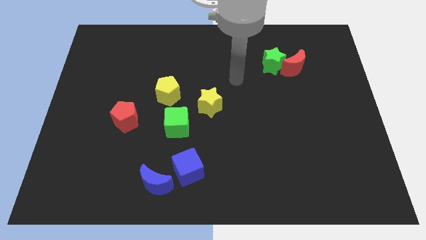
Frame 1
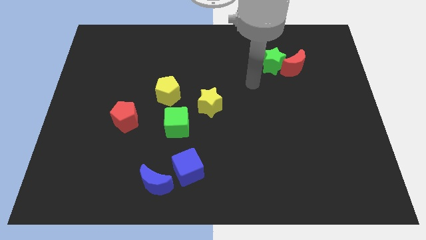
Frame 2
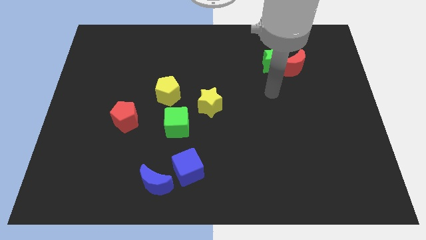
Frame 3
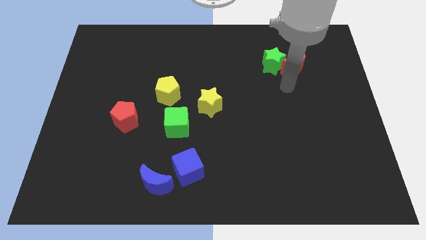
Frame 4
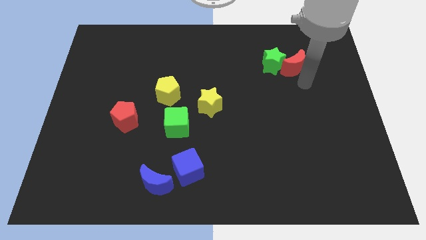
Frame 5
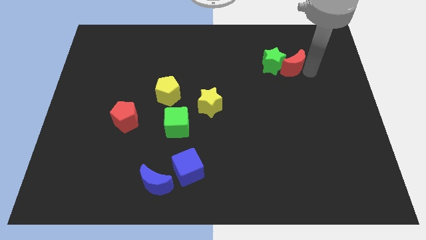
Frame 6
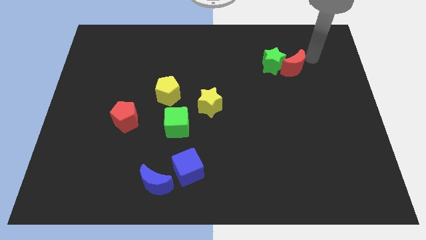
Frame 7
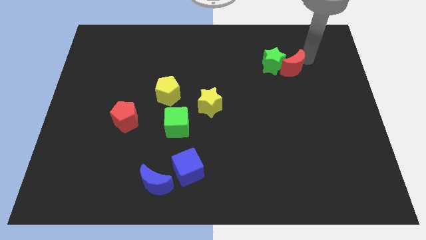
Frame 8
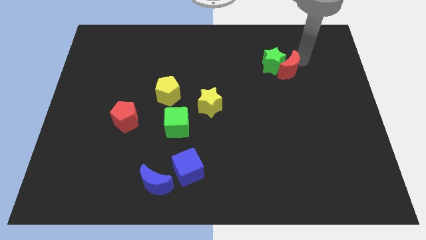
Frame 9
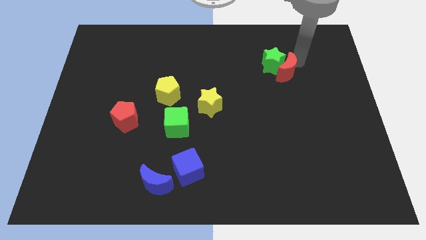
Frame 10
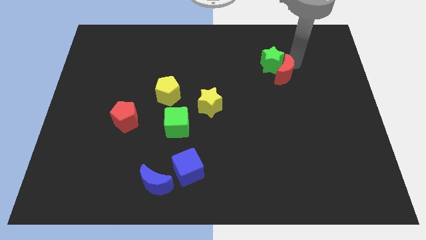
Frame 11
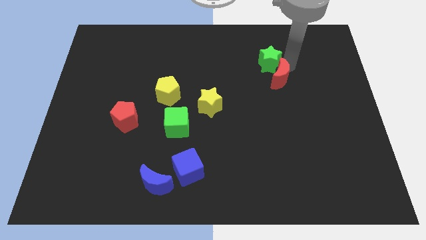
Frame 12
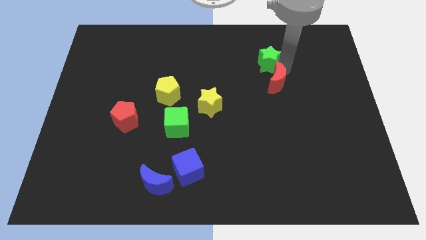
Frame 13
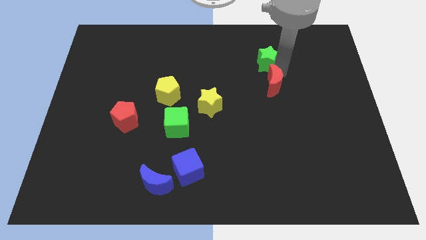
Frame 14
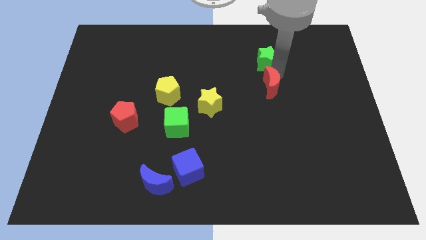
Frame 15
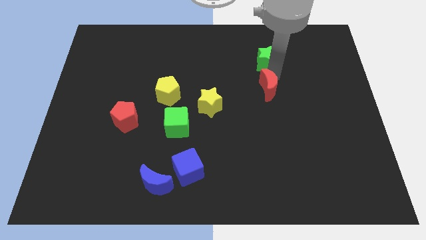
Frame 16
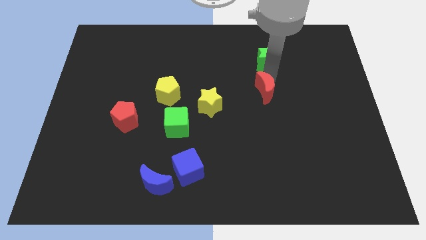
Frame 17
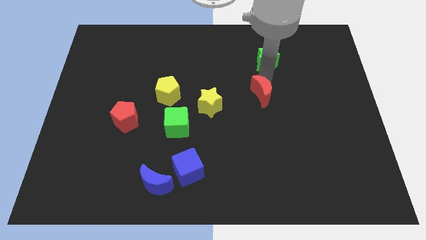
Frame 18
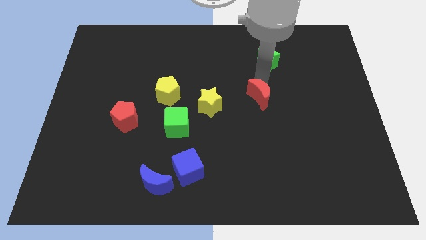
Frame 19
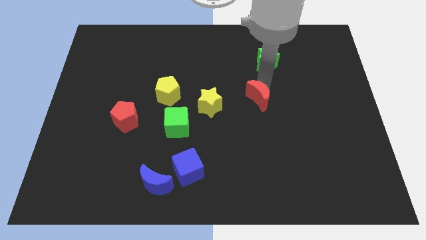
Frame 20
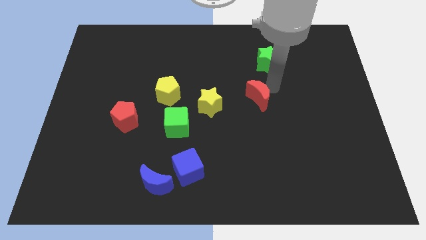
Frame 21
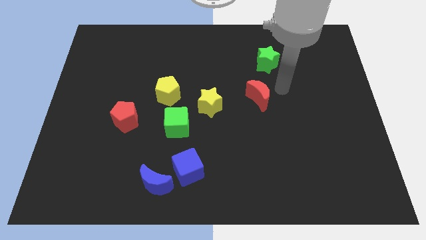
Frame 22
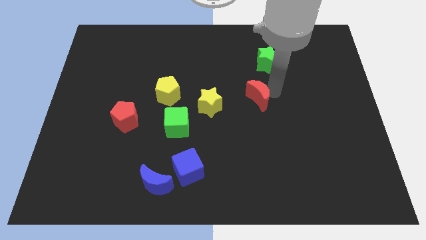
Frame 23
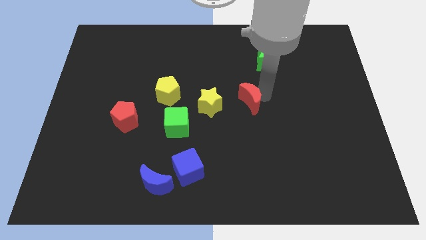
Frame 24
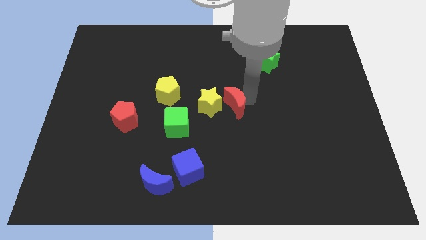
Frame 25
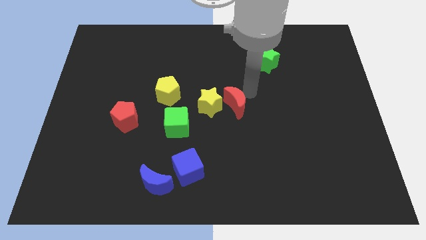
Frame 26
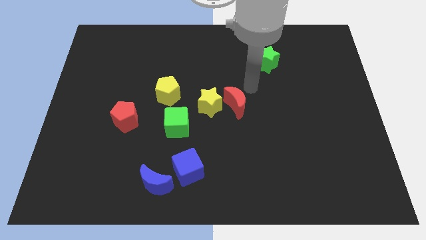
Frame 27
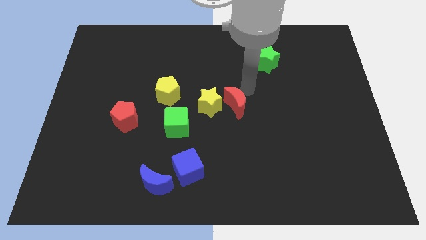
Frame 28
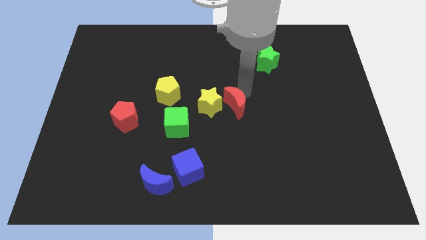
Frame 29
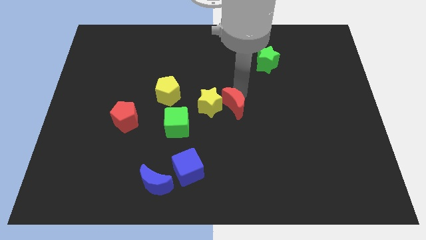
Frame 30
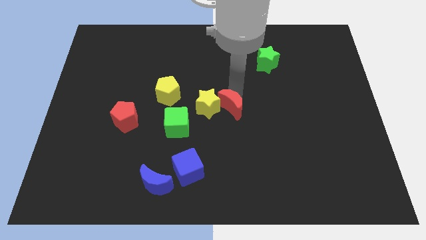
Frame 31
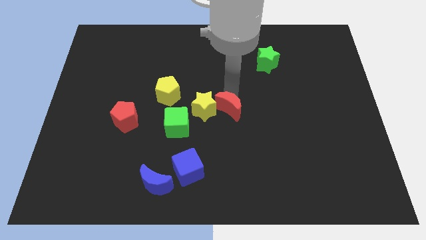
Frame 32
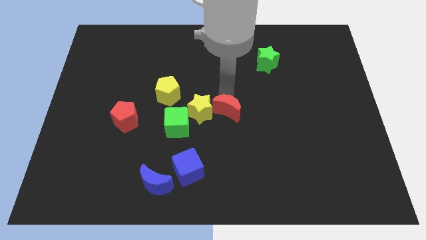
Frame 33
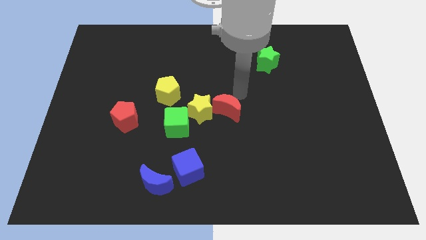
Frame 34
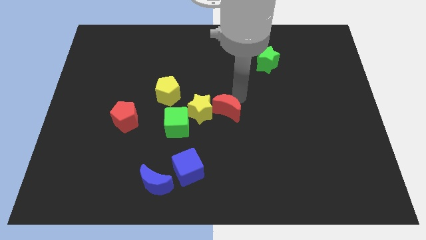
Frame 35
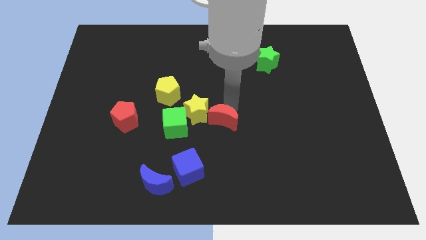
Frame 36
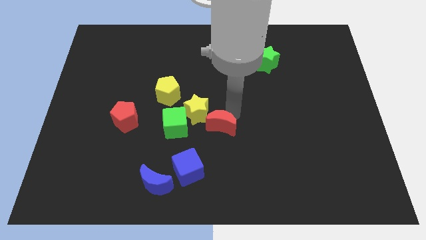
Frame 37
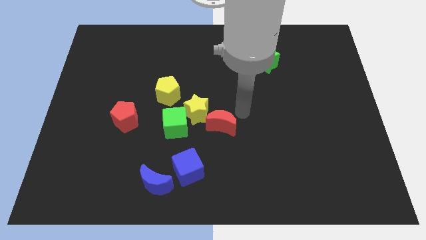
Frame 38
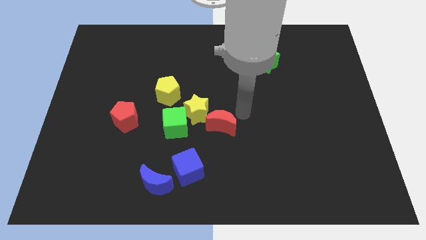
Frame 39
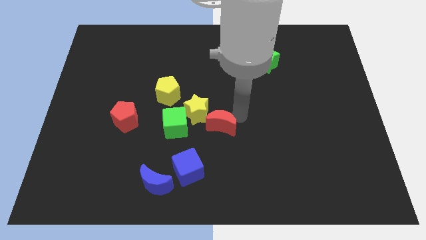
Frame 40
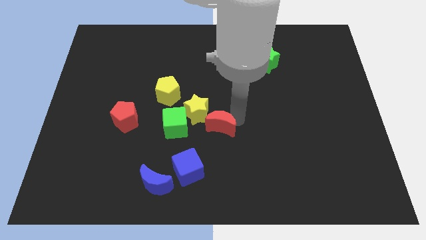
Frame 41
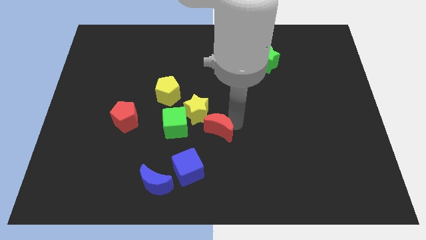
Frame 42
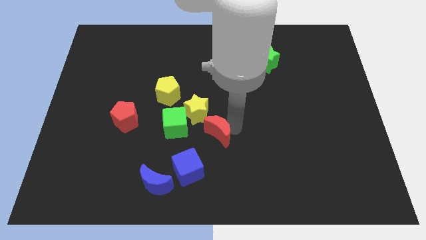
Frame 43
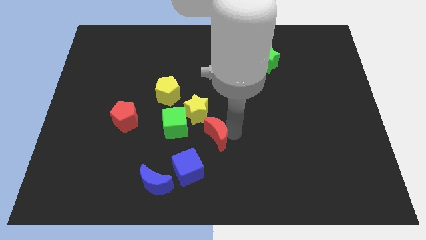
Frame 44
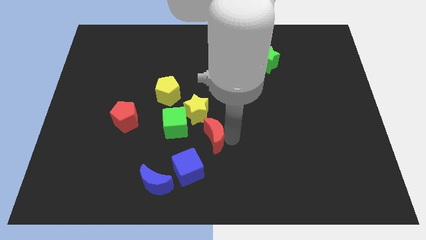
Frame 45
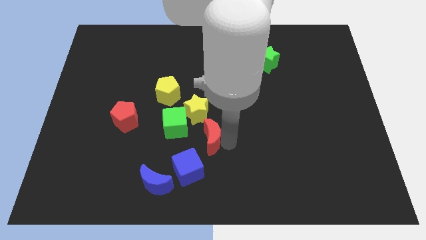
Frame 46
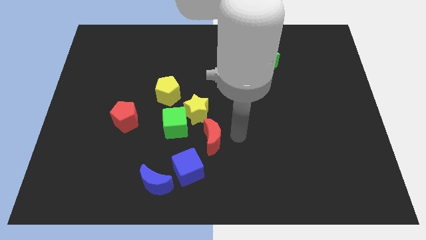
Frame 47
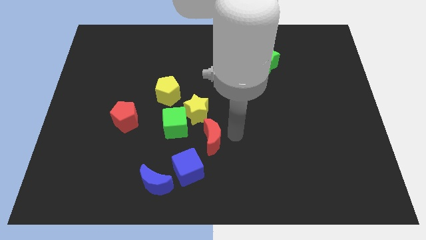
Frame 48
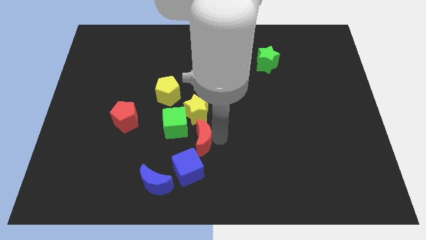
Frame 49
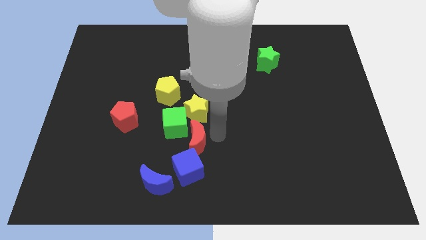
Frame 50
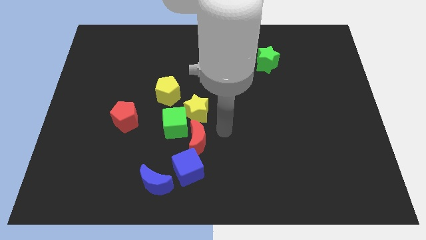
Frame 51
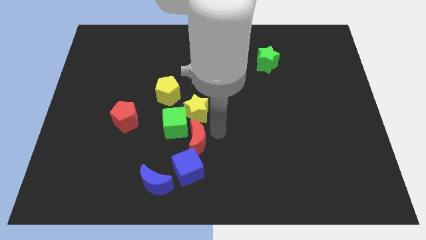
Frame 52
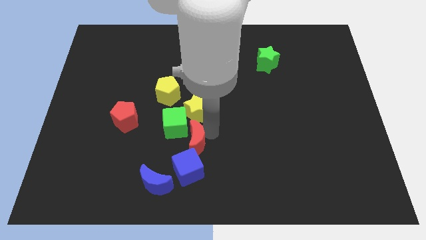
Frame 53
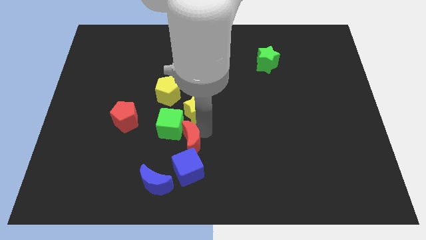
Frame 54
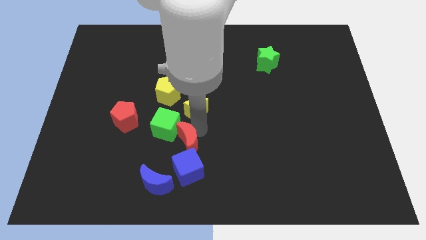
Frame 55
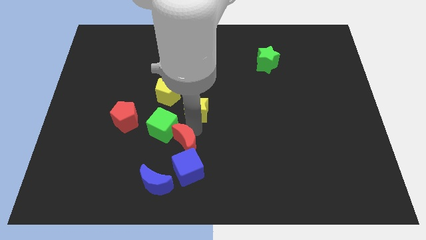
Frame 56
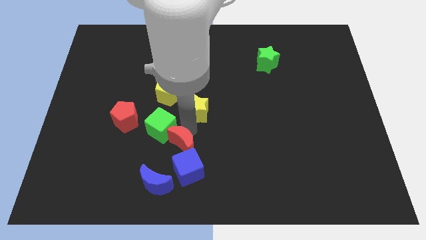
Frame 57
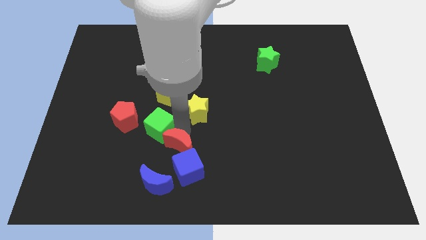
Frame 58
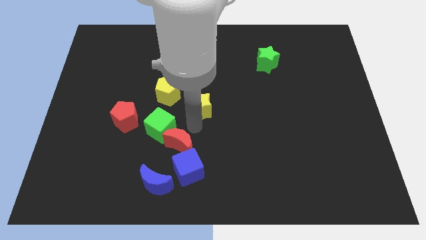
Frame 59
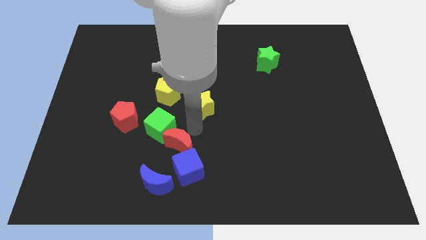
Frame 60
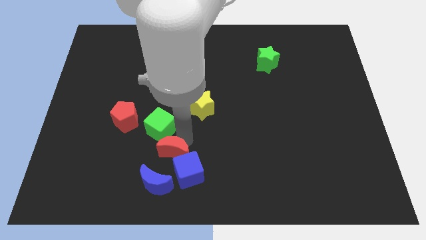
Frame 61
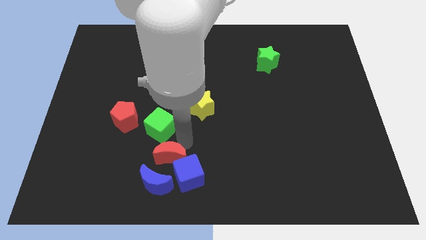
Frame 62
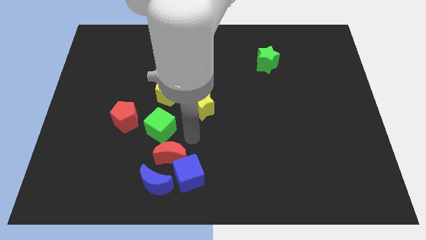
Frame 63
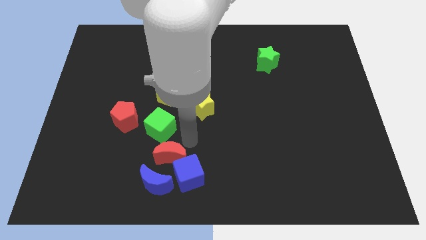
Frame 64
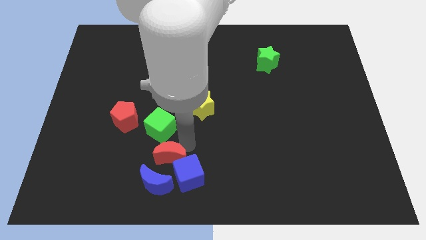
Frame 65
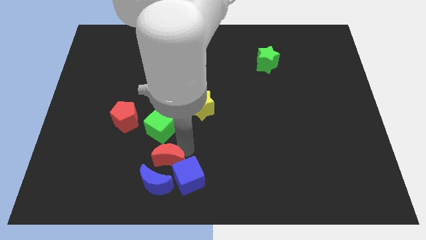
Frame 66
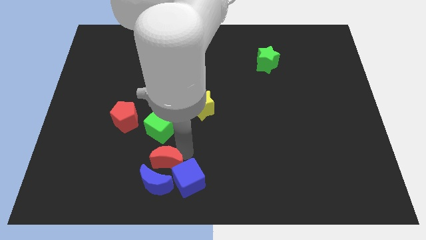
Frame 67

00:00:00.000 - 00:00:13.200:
move the red moon towards the blue moon
